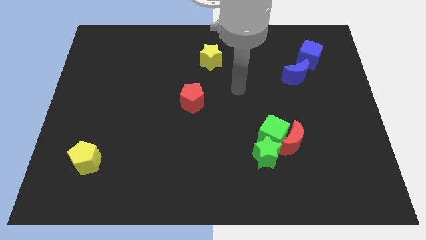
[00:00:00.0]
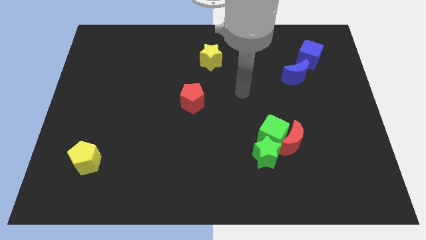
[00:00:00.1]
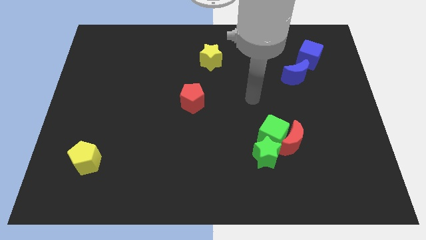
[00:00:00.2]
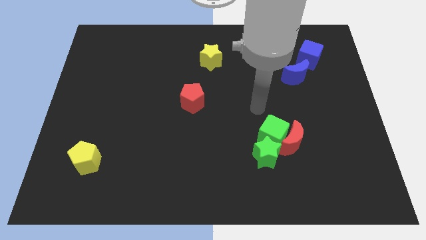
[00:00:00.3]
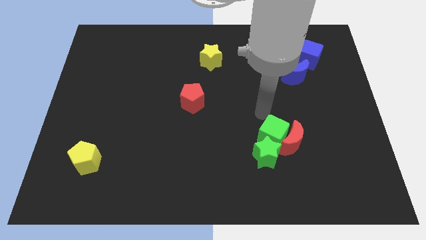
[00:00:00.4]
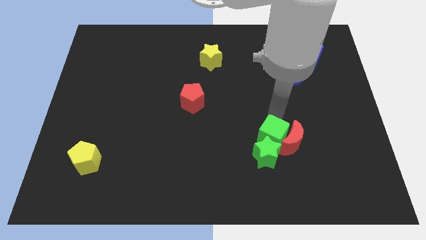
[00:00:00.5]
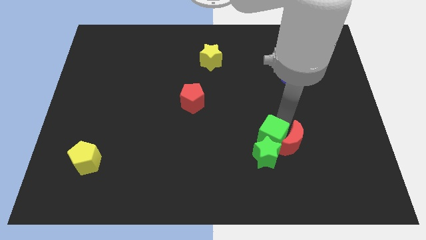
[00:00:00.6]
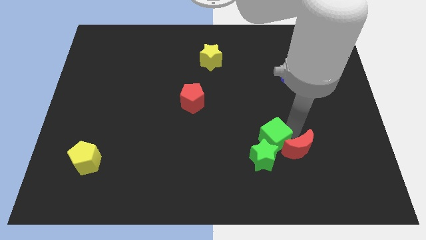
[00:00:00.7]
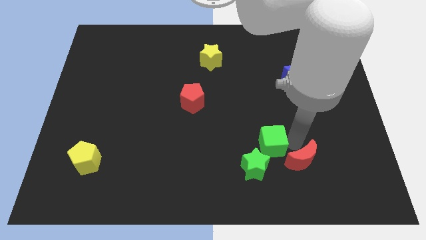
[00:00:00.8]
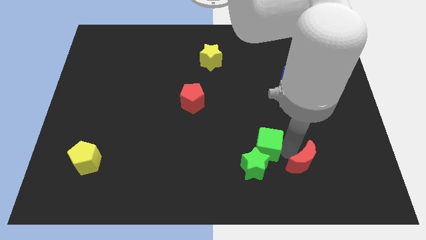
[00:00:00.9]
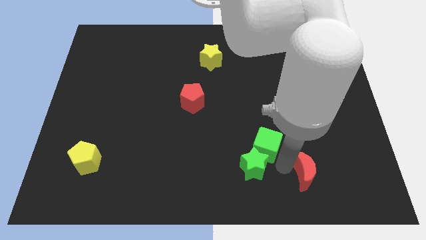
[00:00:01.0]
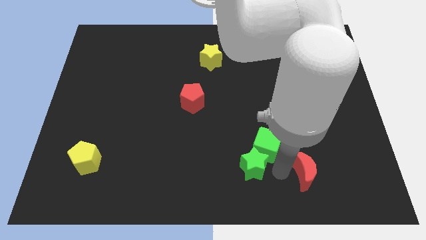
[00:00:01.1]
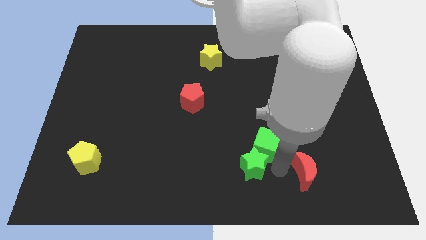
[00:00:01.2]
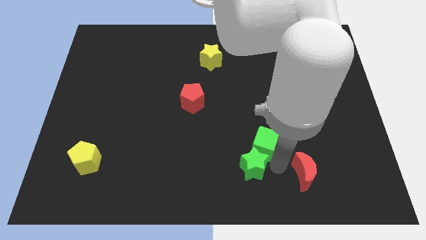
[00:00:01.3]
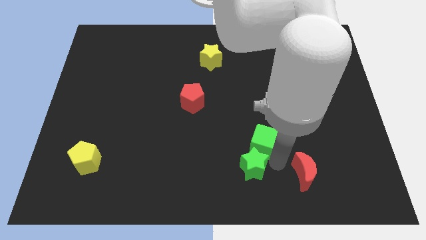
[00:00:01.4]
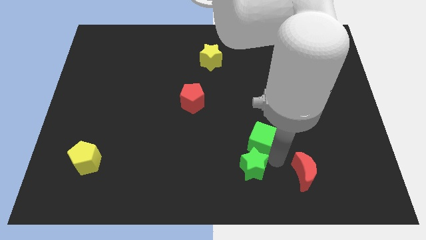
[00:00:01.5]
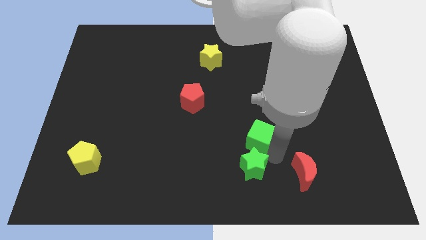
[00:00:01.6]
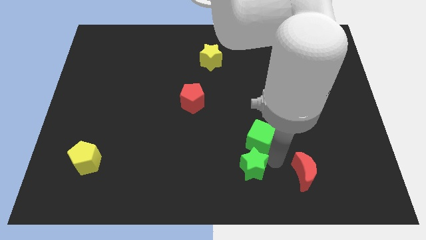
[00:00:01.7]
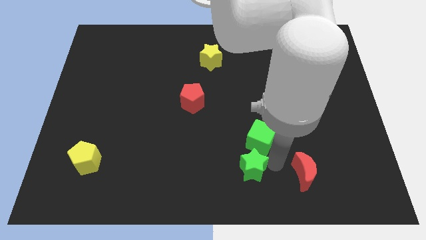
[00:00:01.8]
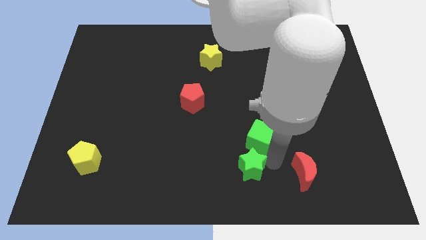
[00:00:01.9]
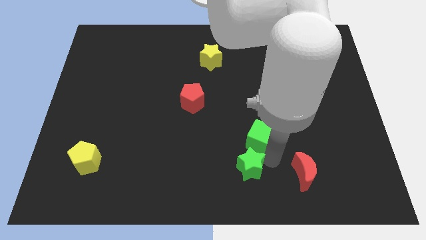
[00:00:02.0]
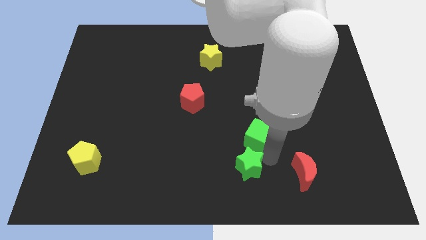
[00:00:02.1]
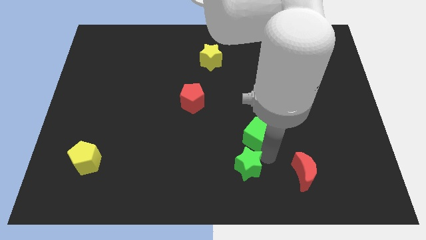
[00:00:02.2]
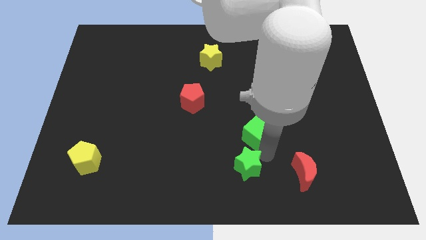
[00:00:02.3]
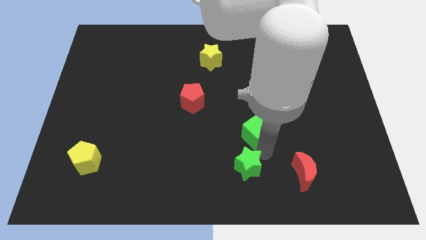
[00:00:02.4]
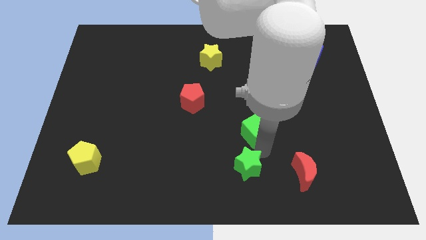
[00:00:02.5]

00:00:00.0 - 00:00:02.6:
move the green cube away from the red moon and green star

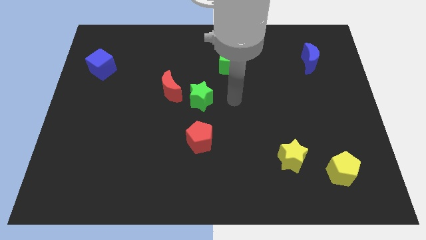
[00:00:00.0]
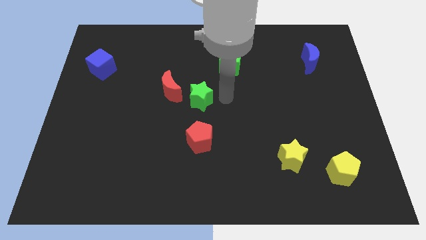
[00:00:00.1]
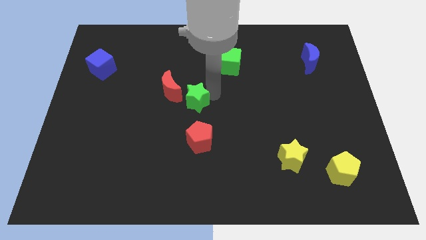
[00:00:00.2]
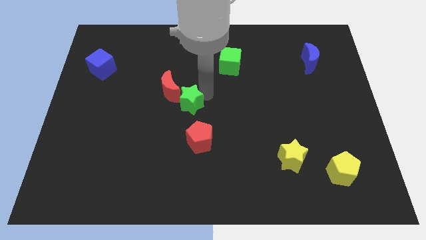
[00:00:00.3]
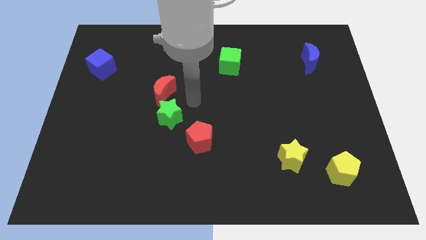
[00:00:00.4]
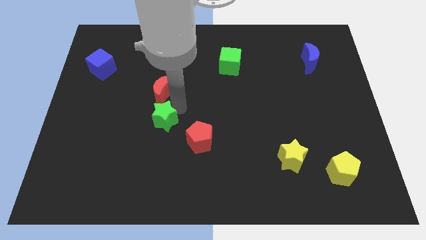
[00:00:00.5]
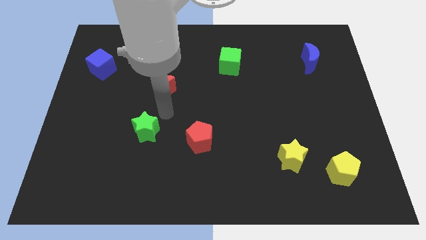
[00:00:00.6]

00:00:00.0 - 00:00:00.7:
pull the red moon apart from the green star

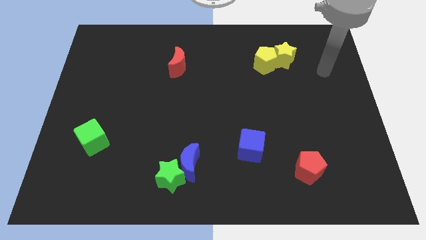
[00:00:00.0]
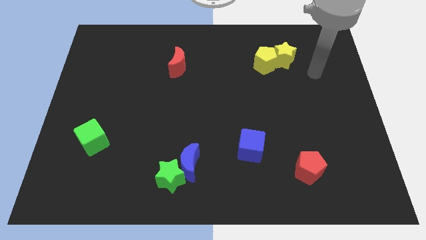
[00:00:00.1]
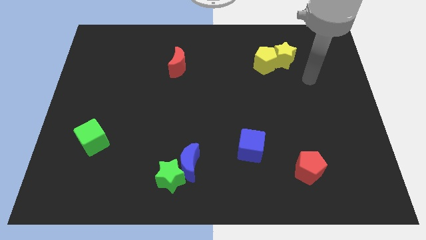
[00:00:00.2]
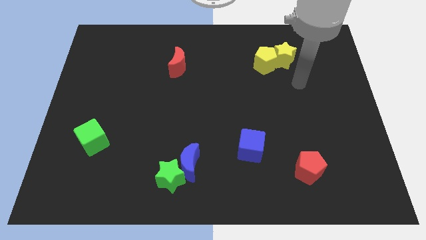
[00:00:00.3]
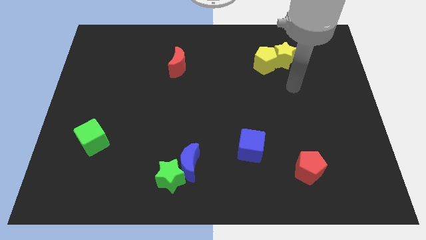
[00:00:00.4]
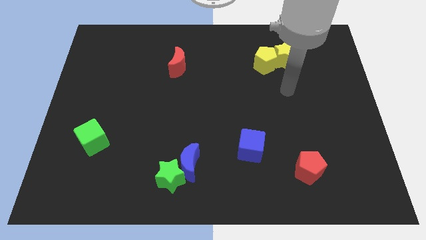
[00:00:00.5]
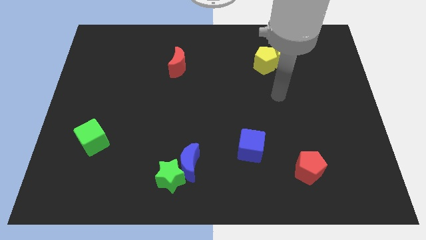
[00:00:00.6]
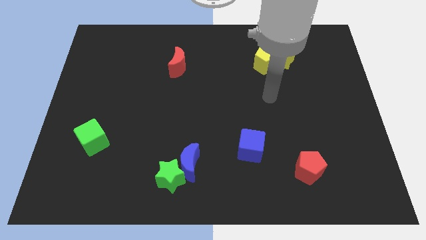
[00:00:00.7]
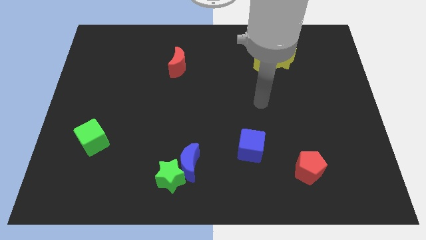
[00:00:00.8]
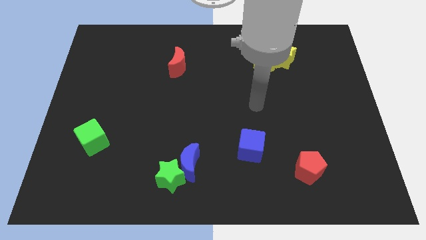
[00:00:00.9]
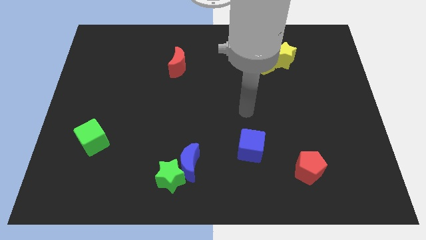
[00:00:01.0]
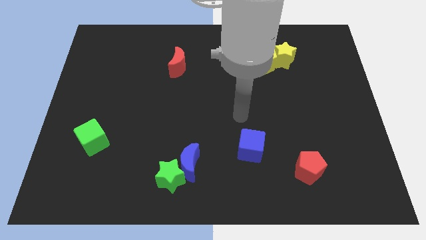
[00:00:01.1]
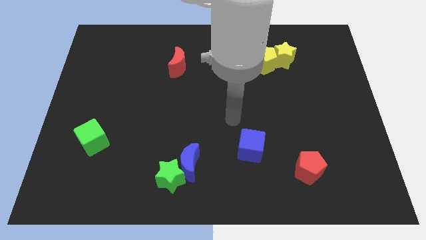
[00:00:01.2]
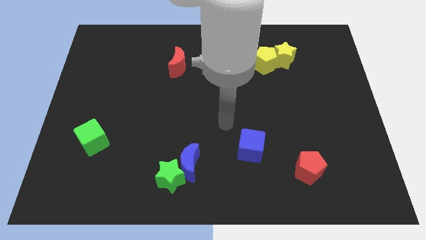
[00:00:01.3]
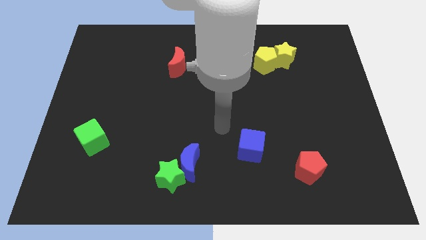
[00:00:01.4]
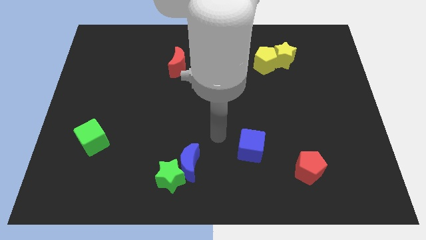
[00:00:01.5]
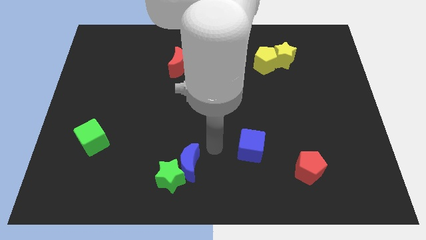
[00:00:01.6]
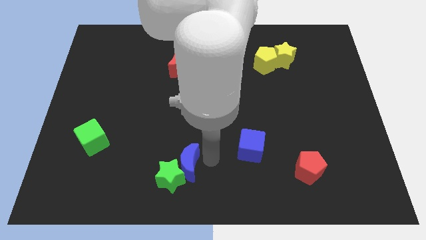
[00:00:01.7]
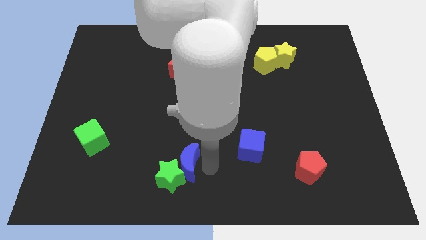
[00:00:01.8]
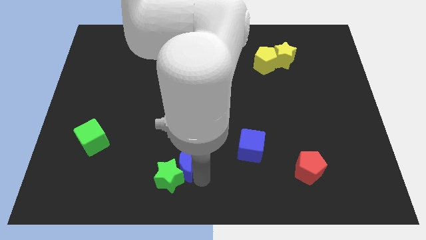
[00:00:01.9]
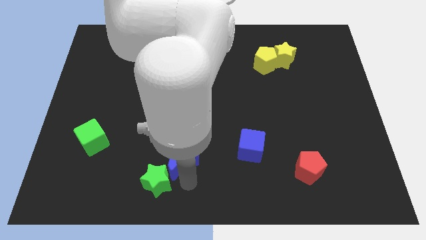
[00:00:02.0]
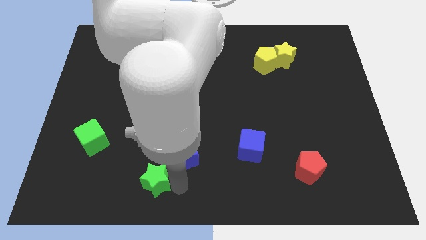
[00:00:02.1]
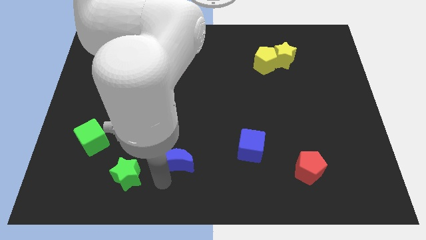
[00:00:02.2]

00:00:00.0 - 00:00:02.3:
separate the blue moon from the green star

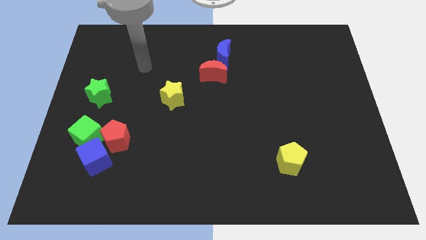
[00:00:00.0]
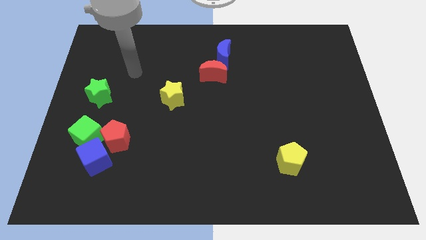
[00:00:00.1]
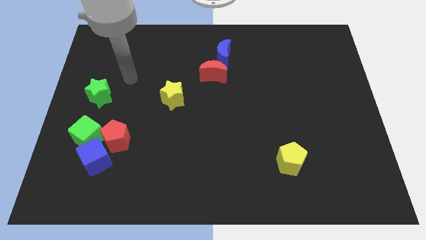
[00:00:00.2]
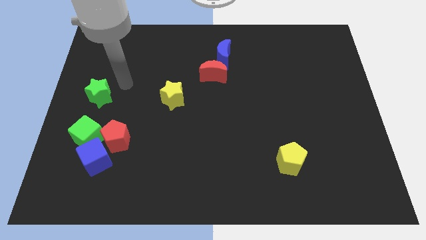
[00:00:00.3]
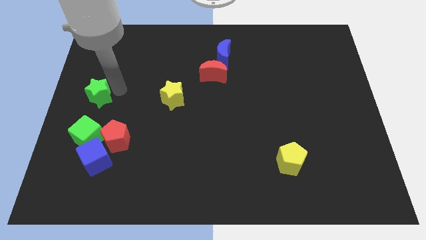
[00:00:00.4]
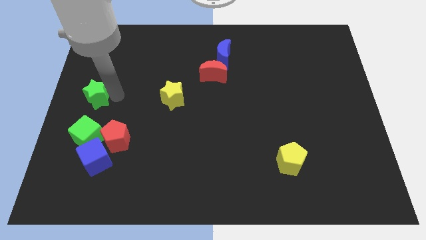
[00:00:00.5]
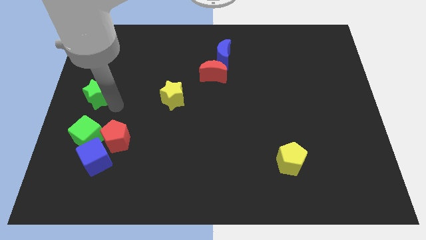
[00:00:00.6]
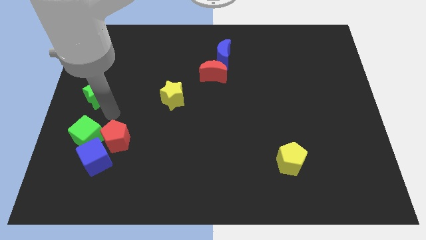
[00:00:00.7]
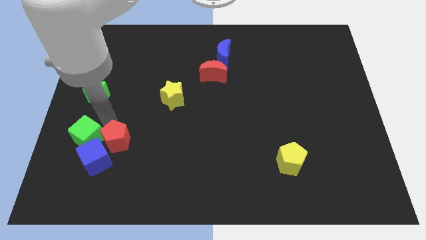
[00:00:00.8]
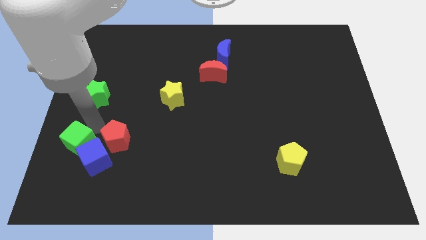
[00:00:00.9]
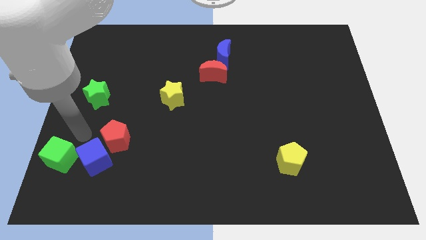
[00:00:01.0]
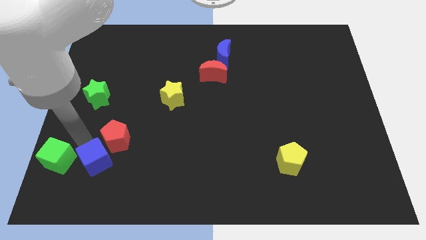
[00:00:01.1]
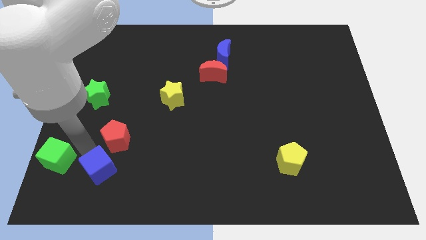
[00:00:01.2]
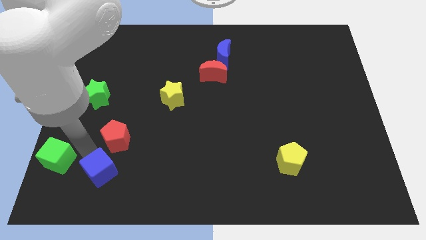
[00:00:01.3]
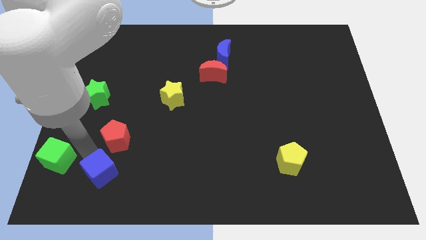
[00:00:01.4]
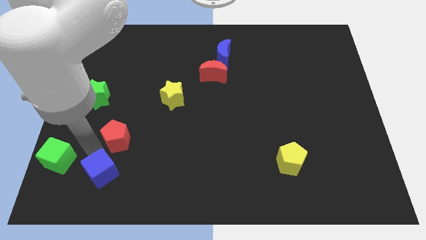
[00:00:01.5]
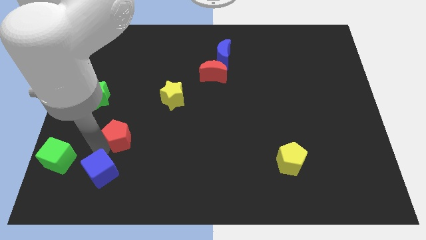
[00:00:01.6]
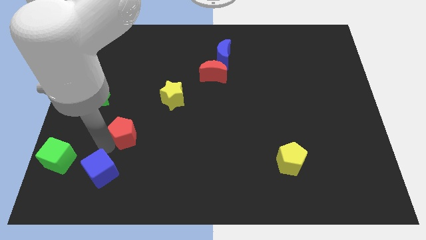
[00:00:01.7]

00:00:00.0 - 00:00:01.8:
move the red pentagon away from the blue cube and green cube

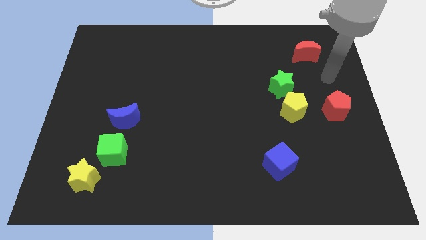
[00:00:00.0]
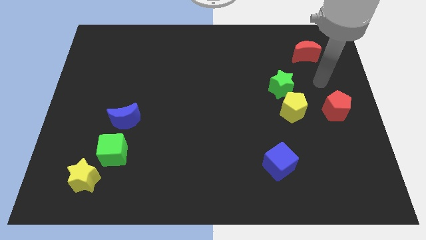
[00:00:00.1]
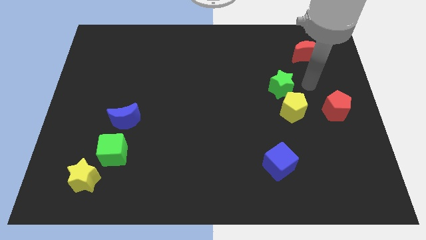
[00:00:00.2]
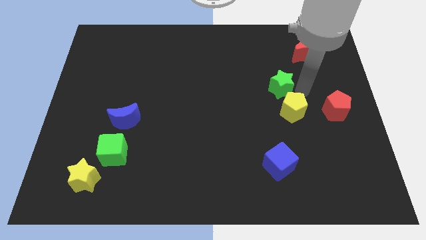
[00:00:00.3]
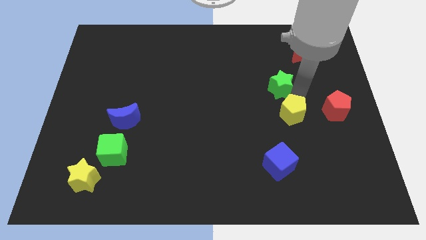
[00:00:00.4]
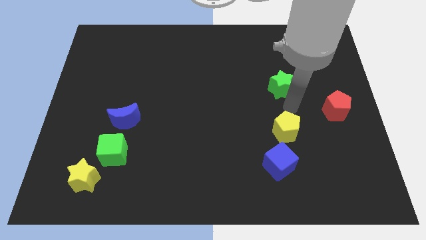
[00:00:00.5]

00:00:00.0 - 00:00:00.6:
move the green star away from the yellow pentagon

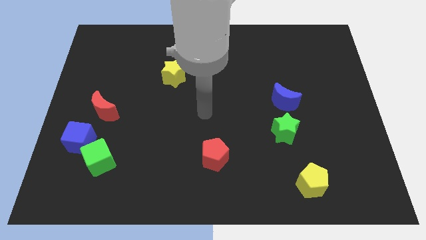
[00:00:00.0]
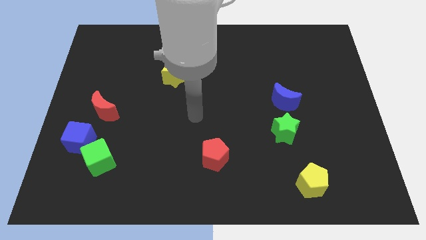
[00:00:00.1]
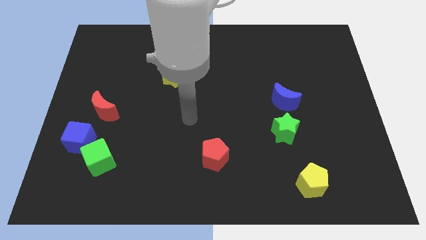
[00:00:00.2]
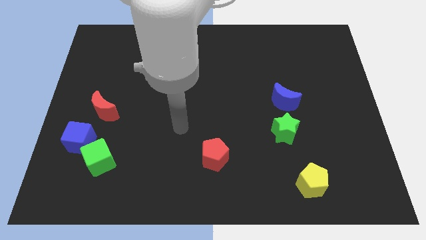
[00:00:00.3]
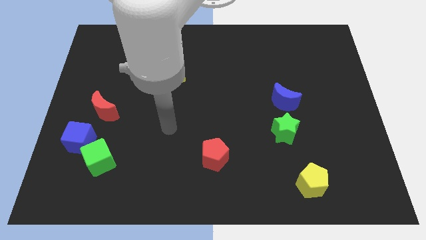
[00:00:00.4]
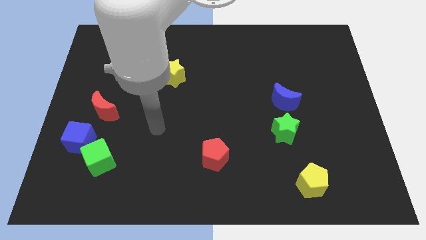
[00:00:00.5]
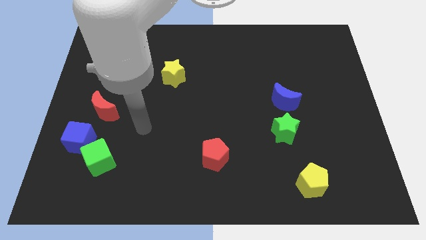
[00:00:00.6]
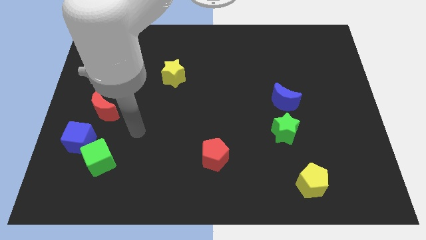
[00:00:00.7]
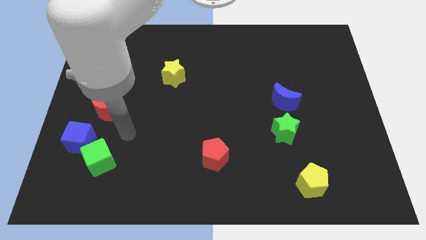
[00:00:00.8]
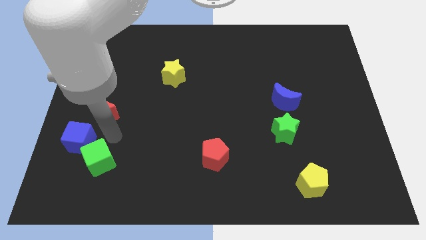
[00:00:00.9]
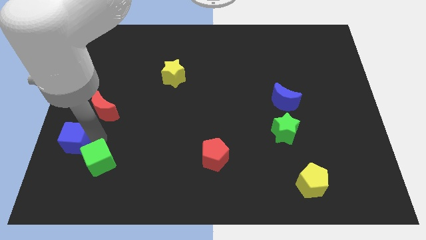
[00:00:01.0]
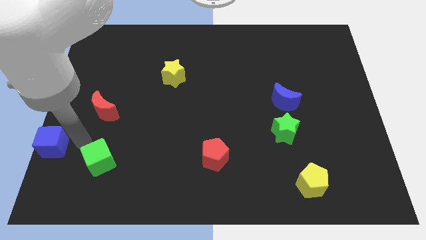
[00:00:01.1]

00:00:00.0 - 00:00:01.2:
pull the green cube apart from the blue cube
